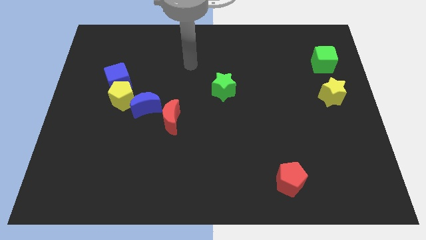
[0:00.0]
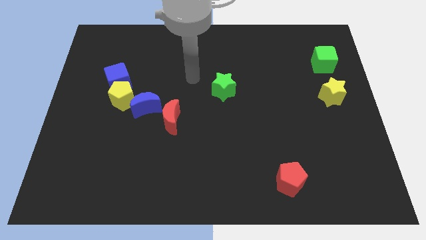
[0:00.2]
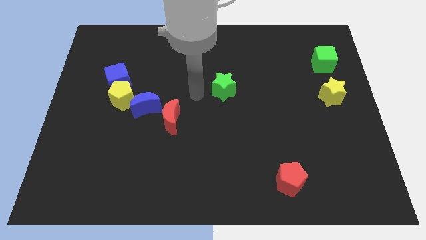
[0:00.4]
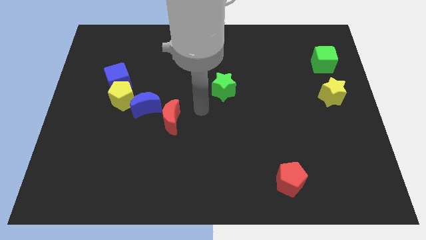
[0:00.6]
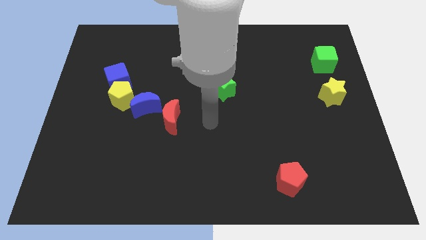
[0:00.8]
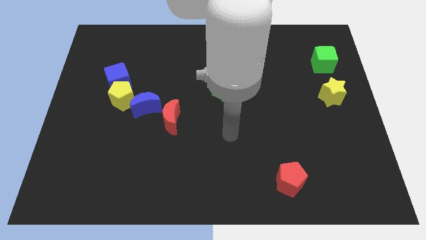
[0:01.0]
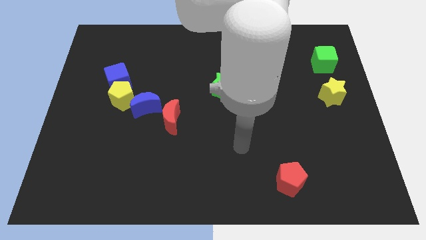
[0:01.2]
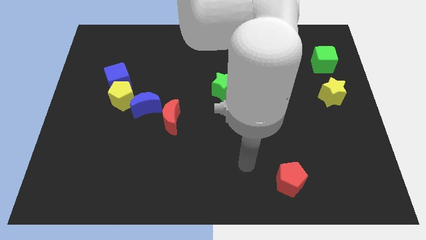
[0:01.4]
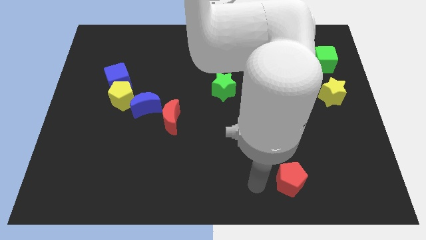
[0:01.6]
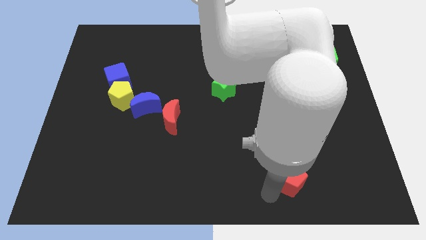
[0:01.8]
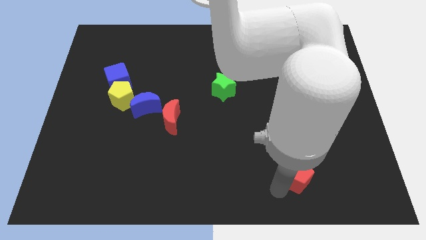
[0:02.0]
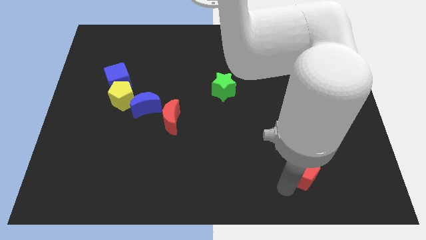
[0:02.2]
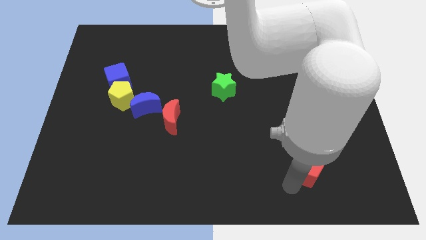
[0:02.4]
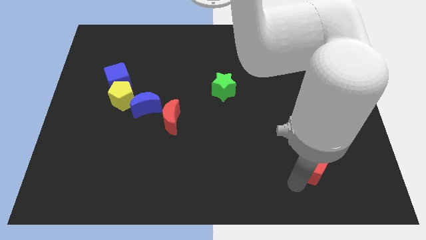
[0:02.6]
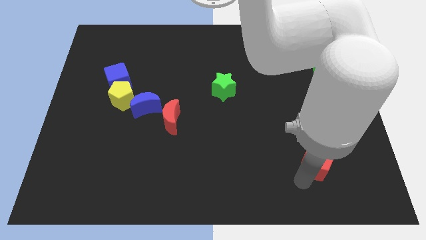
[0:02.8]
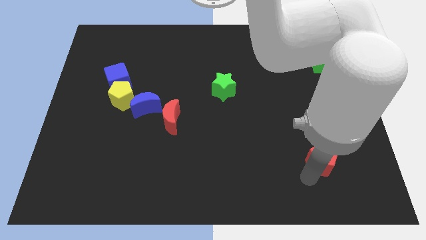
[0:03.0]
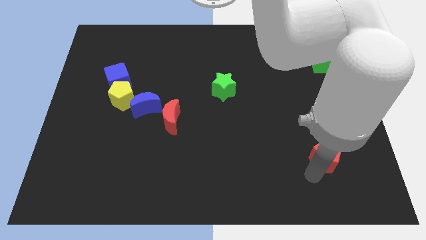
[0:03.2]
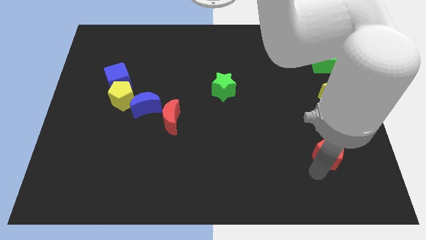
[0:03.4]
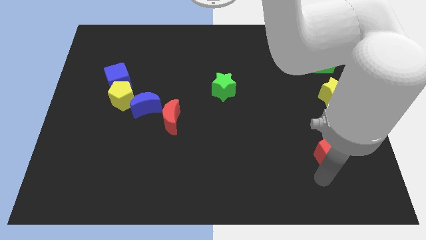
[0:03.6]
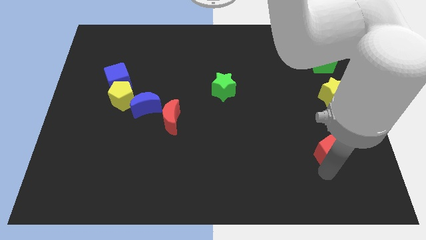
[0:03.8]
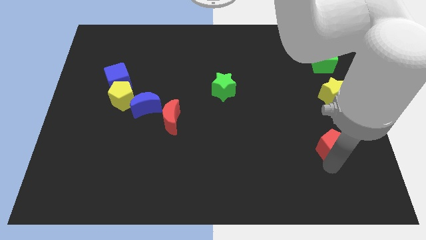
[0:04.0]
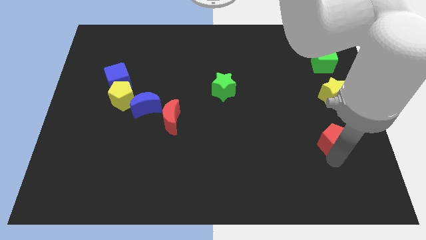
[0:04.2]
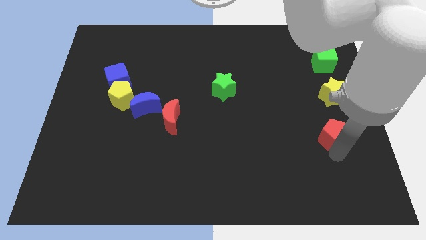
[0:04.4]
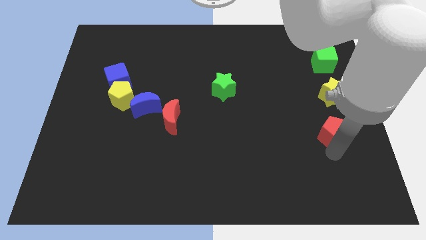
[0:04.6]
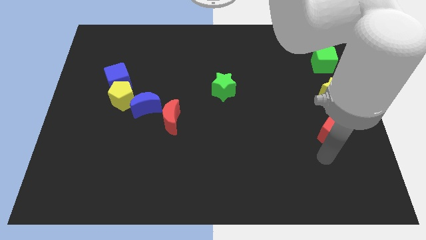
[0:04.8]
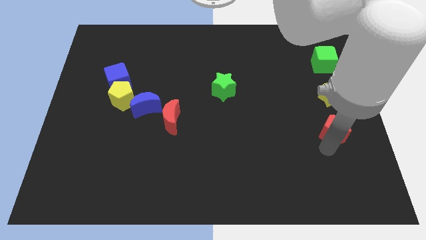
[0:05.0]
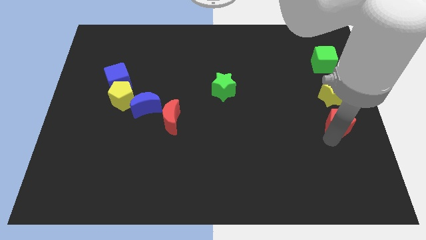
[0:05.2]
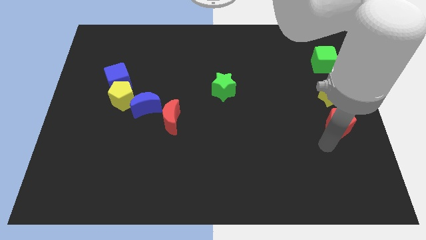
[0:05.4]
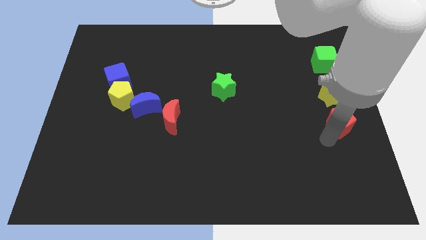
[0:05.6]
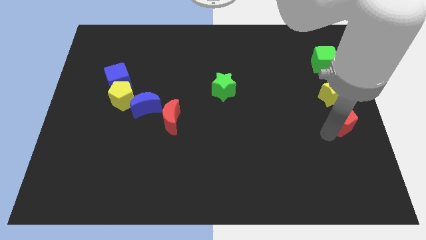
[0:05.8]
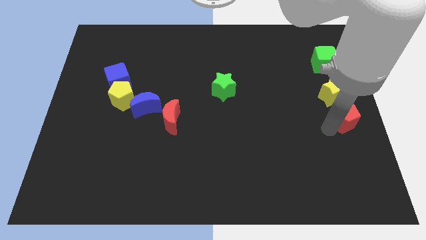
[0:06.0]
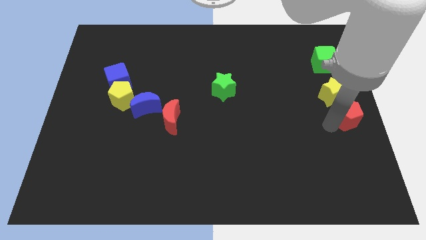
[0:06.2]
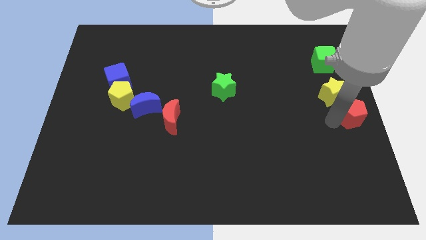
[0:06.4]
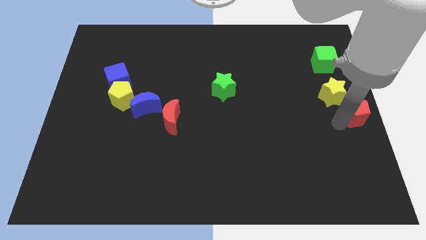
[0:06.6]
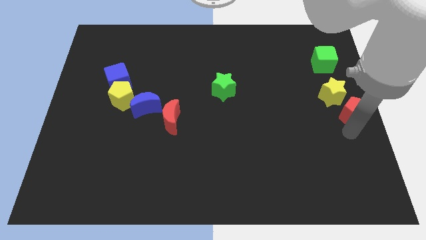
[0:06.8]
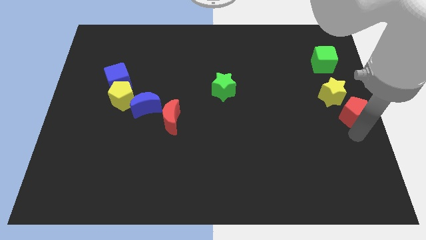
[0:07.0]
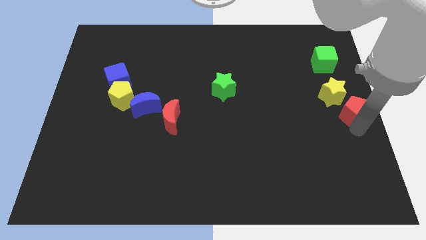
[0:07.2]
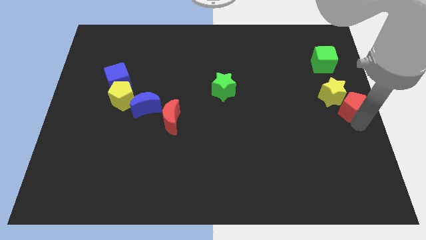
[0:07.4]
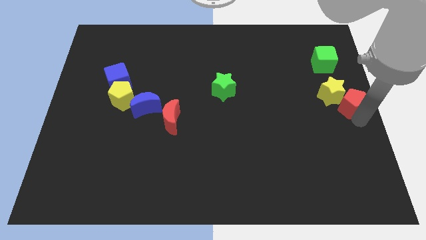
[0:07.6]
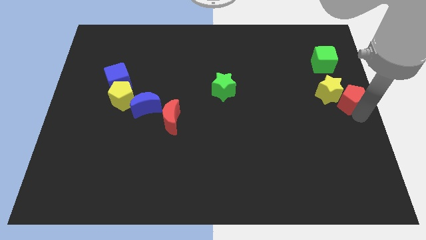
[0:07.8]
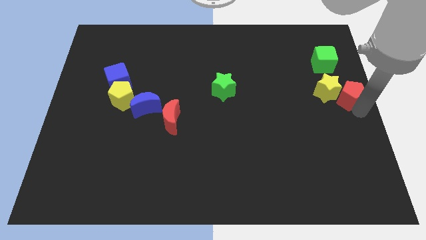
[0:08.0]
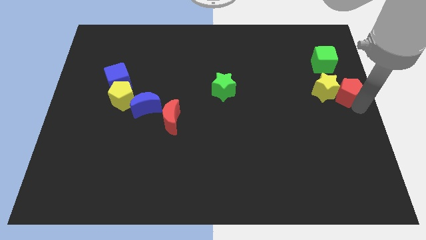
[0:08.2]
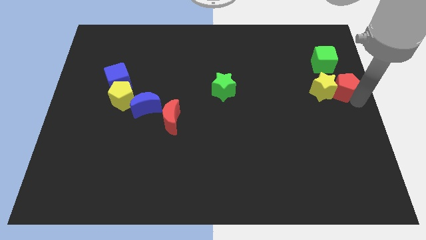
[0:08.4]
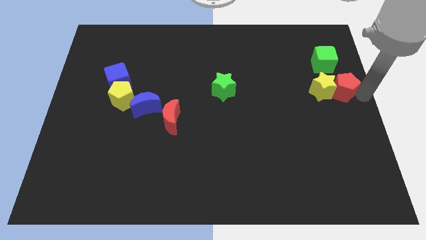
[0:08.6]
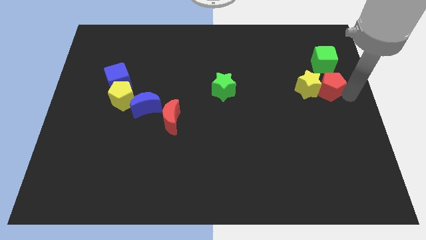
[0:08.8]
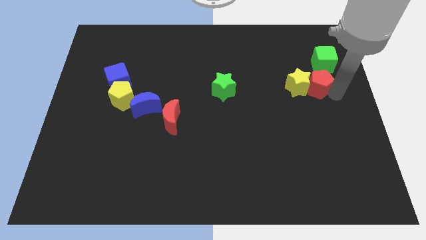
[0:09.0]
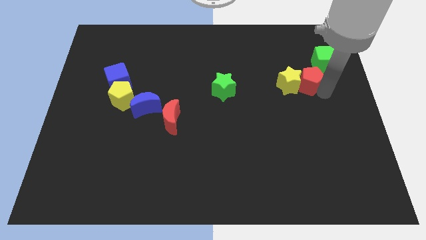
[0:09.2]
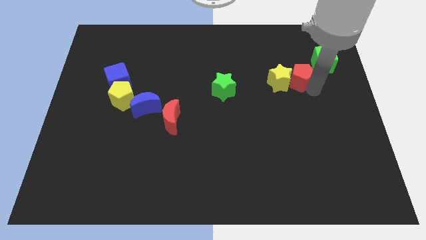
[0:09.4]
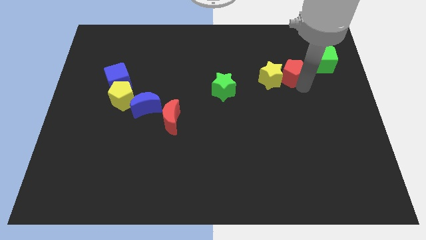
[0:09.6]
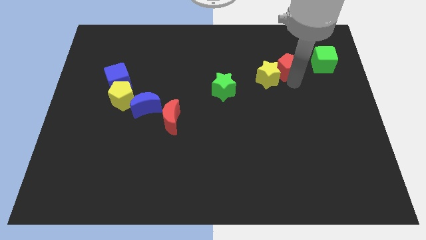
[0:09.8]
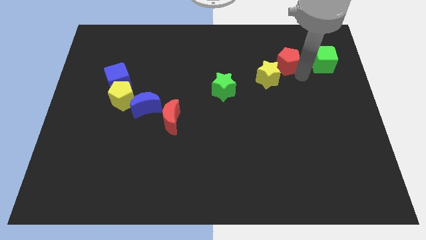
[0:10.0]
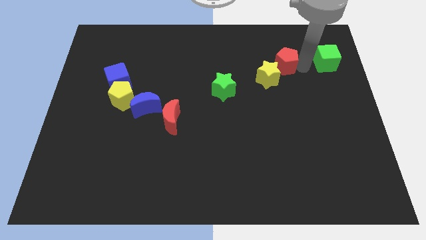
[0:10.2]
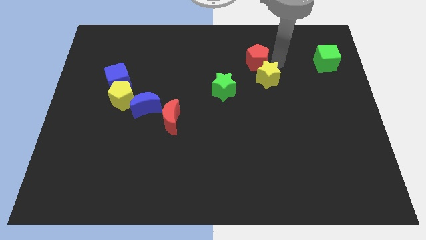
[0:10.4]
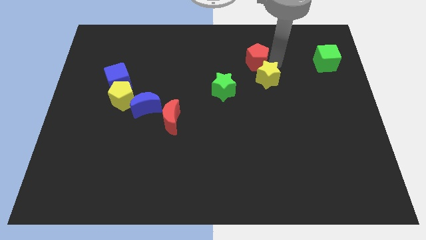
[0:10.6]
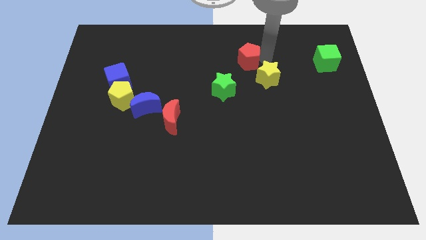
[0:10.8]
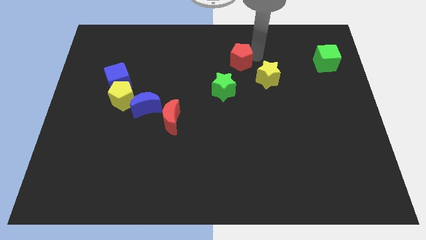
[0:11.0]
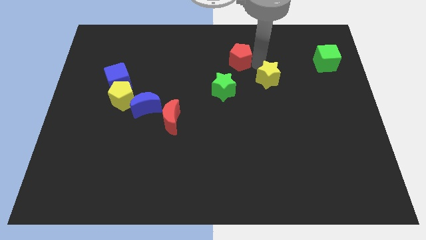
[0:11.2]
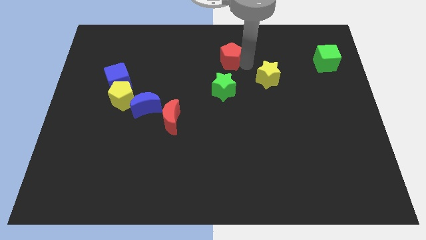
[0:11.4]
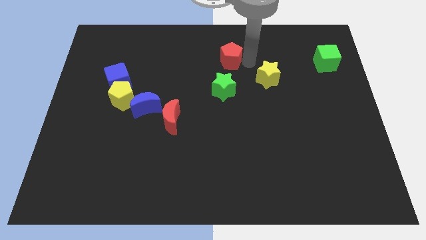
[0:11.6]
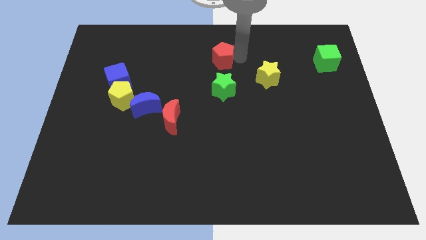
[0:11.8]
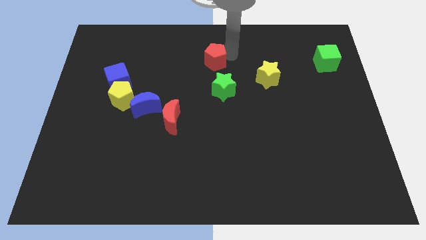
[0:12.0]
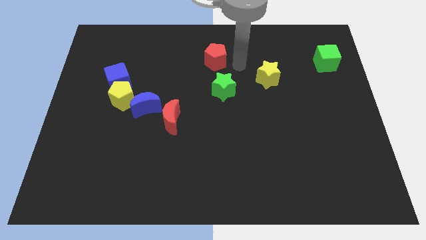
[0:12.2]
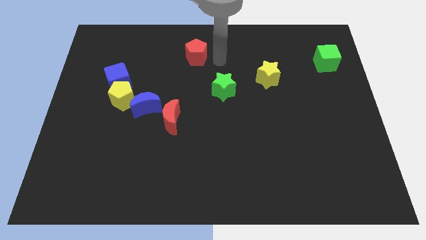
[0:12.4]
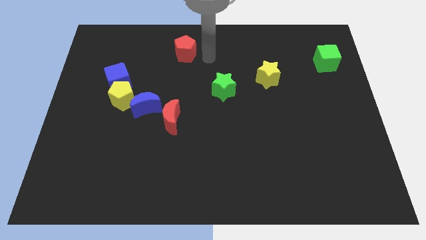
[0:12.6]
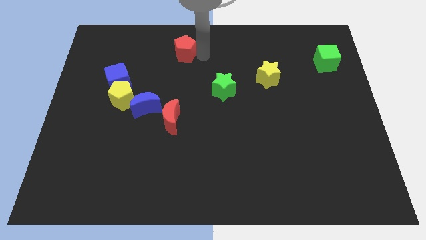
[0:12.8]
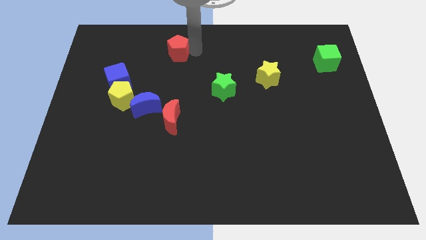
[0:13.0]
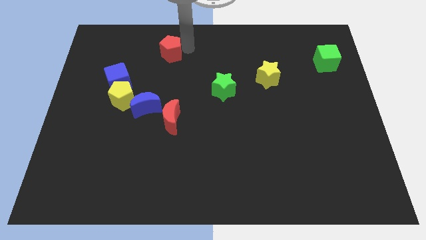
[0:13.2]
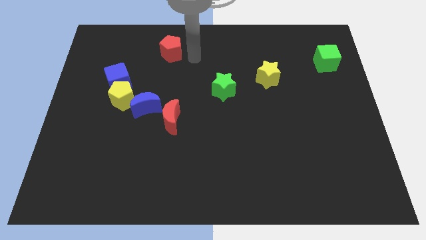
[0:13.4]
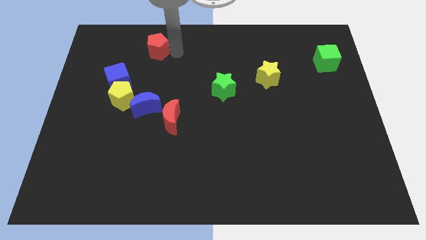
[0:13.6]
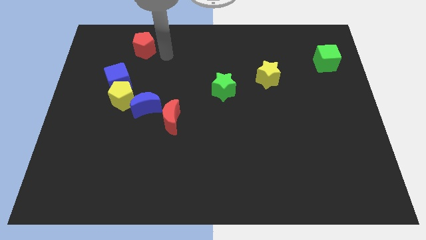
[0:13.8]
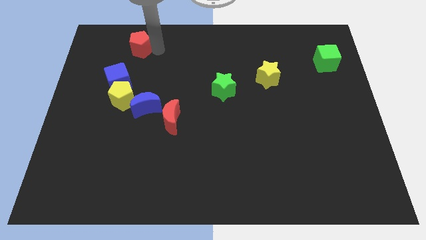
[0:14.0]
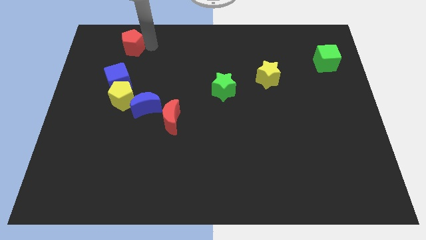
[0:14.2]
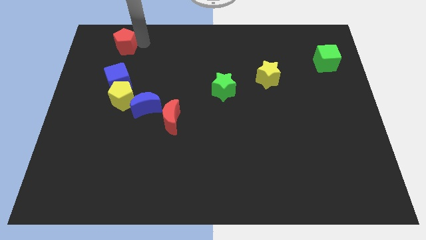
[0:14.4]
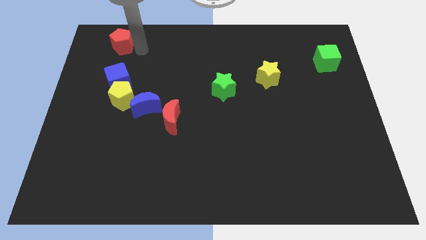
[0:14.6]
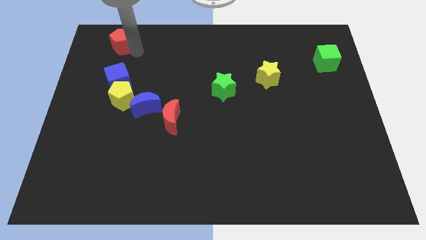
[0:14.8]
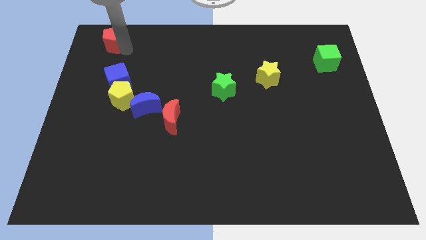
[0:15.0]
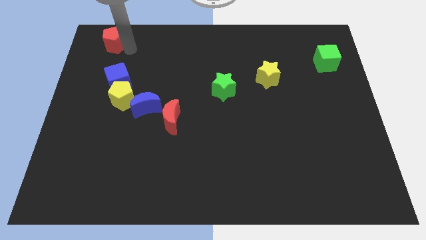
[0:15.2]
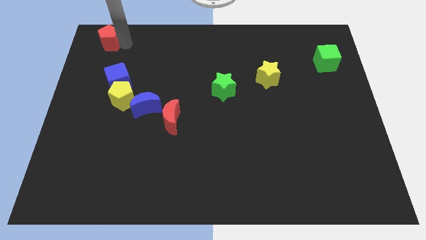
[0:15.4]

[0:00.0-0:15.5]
move the red pentagon to the top left of the board
